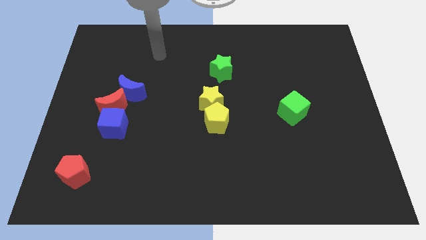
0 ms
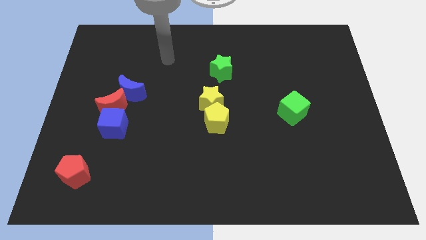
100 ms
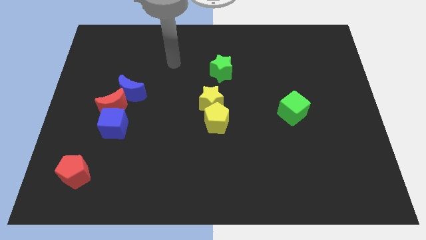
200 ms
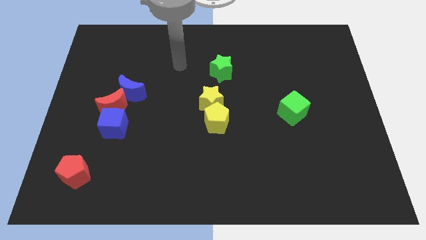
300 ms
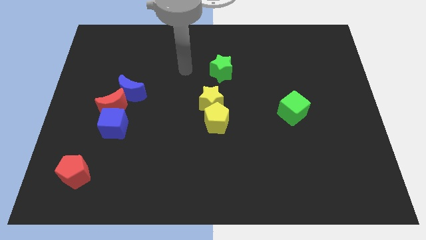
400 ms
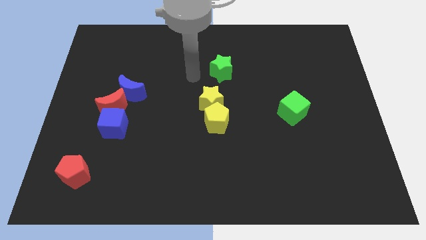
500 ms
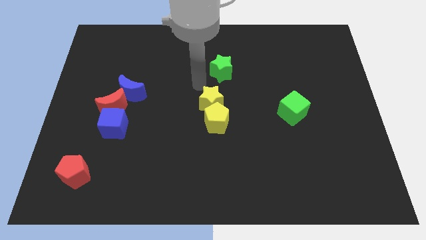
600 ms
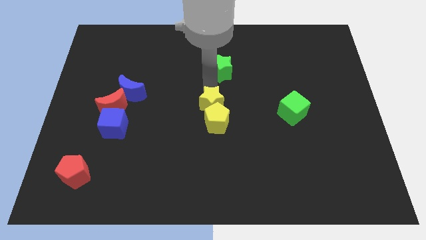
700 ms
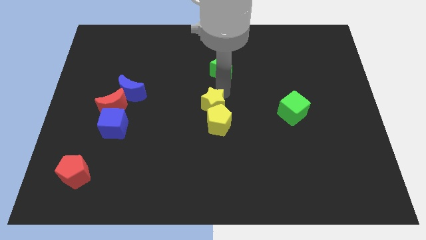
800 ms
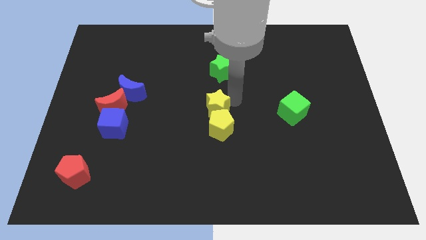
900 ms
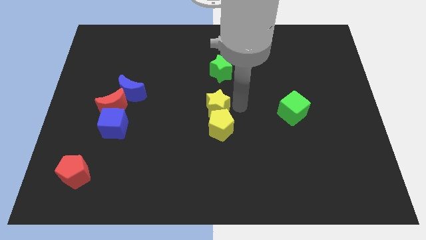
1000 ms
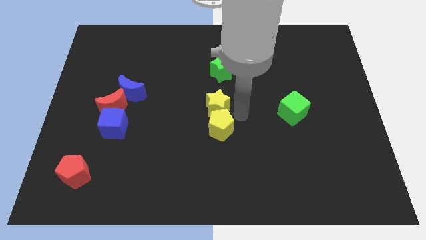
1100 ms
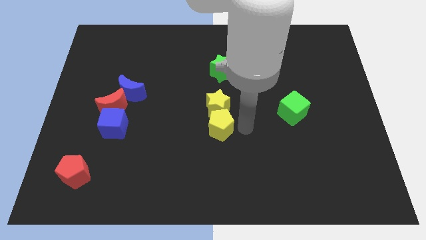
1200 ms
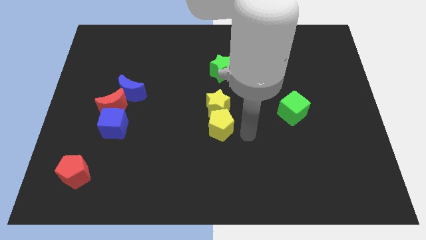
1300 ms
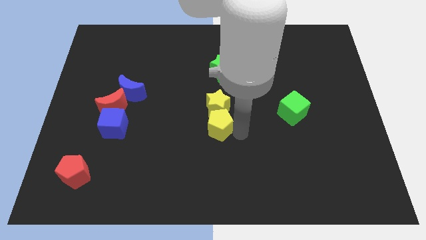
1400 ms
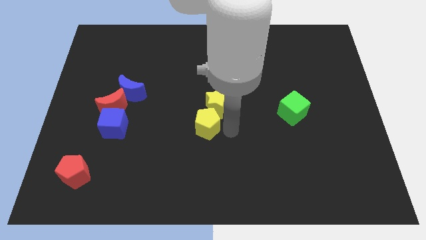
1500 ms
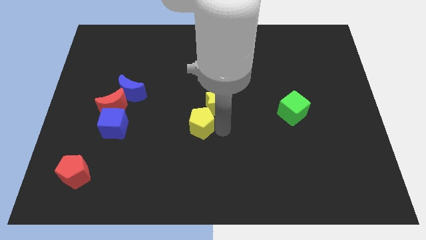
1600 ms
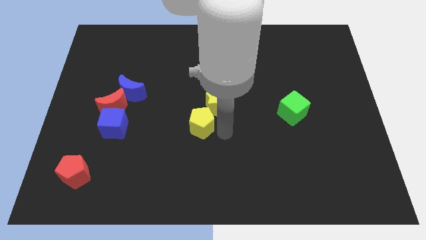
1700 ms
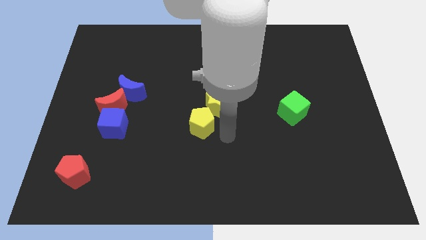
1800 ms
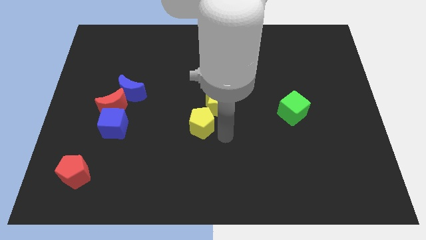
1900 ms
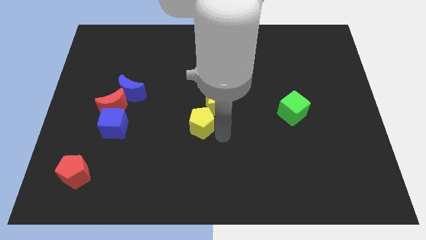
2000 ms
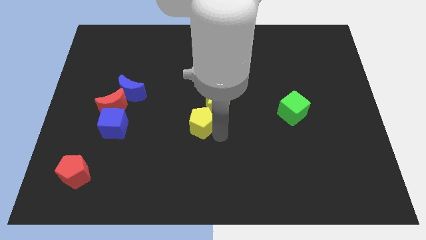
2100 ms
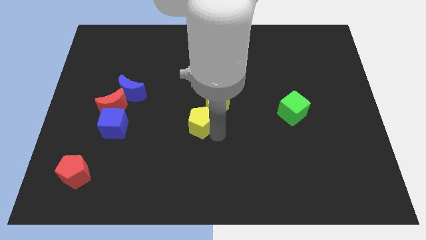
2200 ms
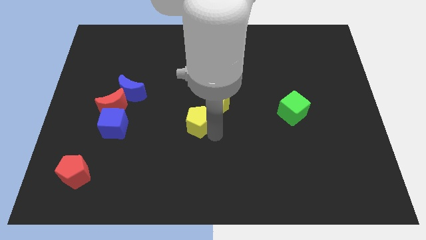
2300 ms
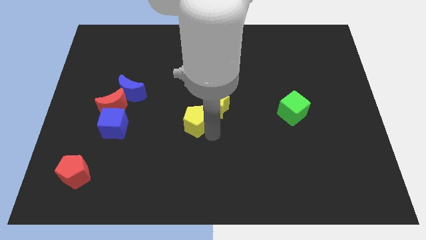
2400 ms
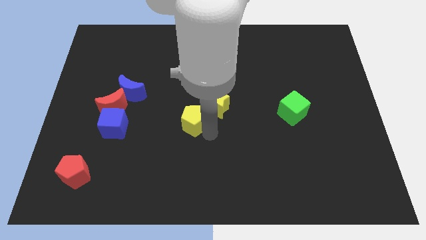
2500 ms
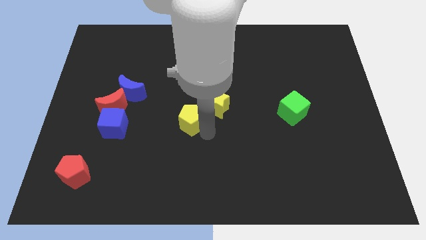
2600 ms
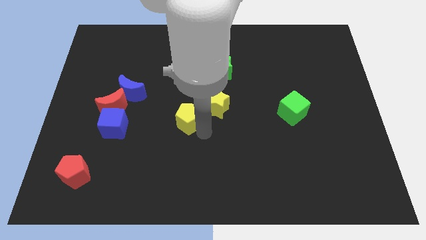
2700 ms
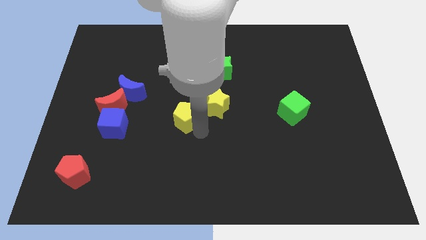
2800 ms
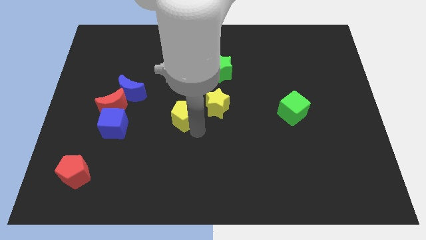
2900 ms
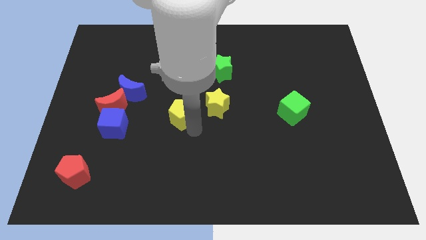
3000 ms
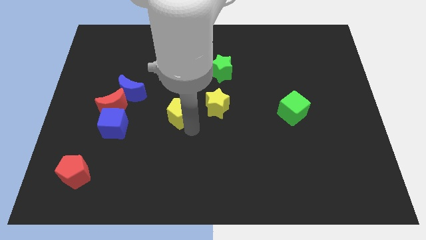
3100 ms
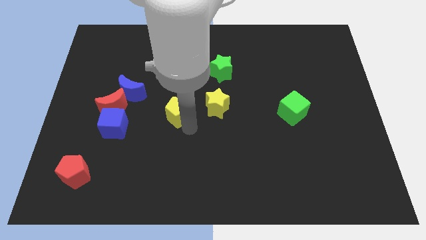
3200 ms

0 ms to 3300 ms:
slide the yellow pentagon a bit up and to the left diagonally

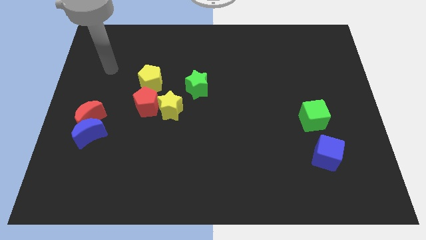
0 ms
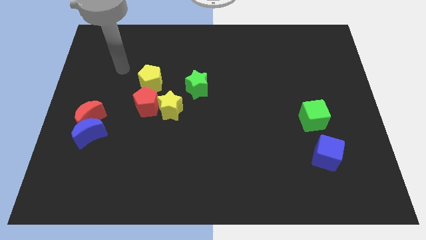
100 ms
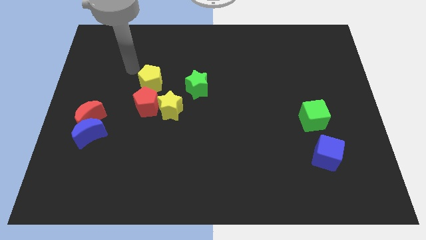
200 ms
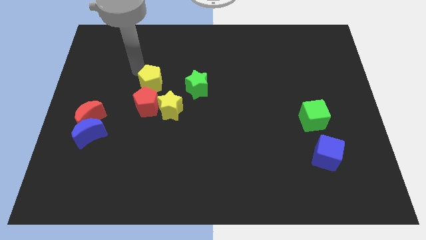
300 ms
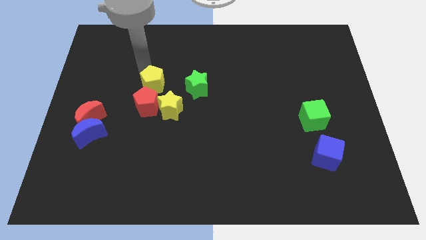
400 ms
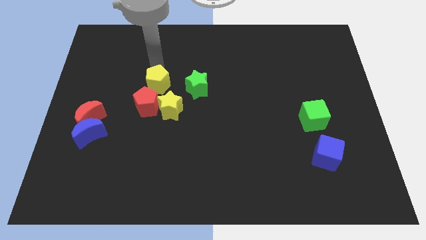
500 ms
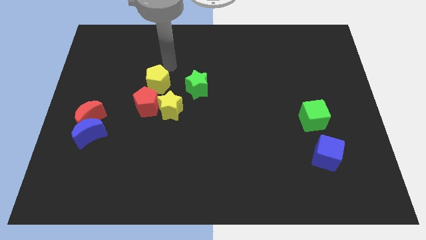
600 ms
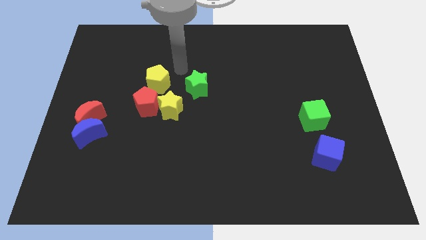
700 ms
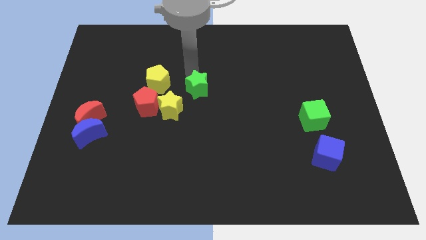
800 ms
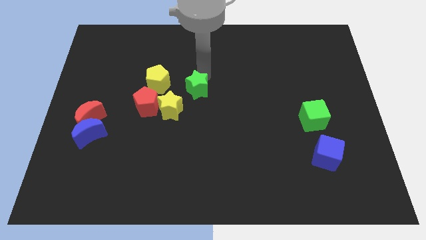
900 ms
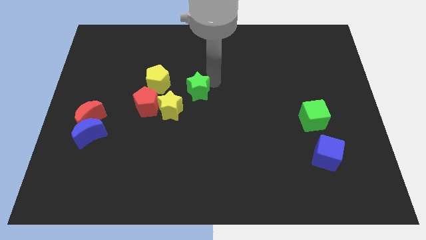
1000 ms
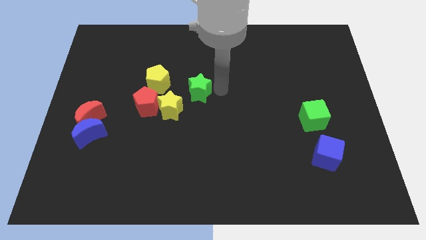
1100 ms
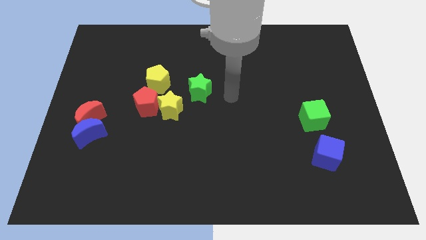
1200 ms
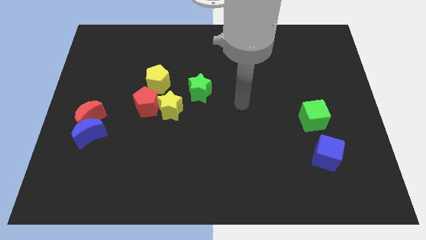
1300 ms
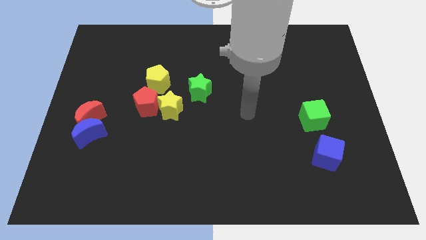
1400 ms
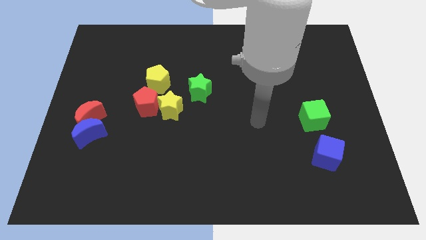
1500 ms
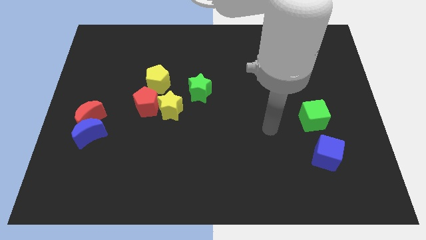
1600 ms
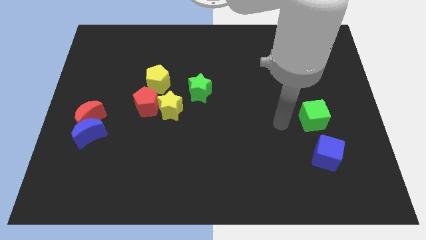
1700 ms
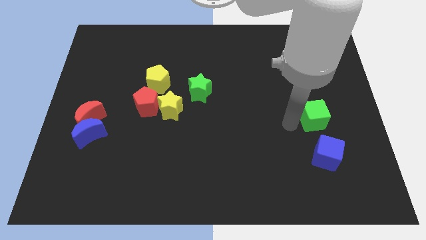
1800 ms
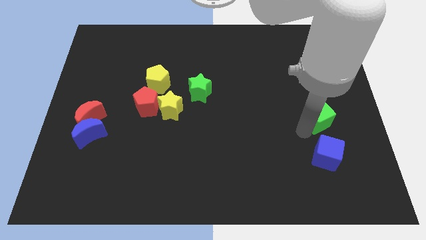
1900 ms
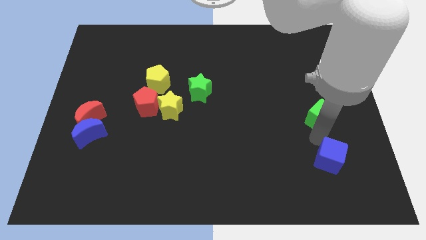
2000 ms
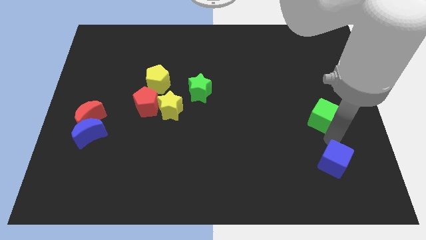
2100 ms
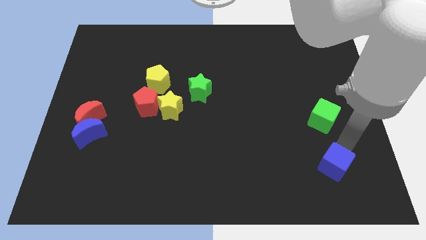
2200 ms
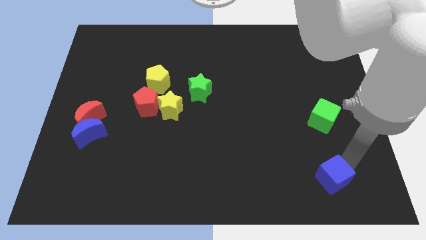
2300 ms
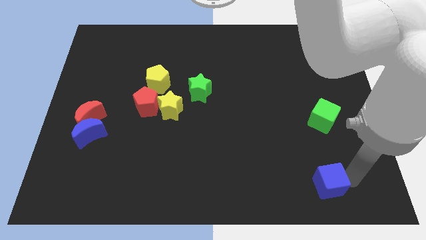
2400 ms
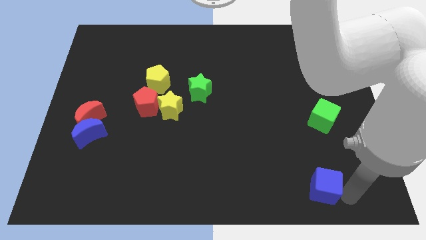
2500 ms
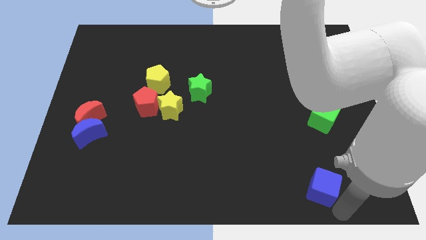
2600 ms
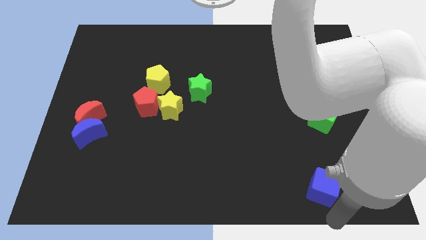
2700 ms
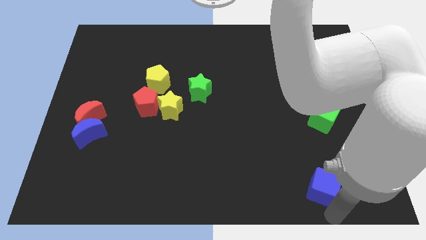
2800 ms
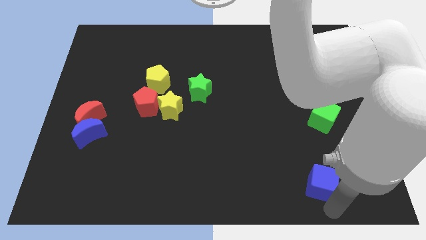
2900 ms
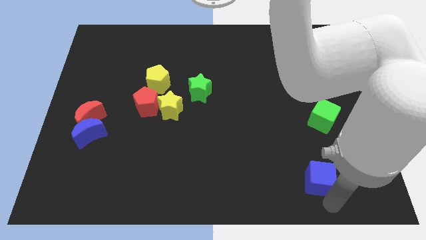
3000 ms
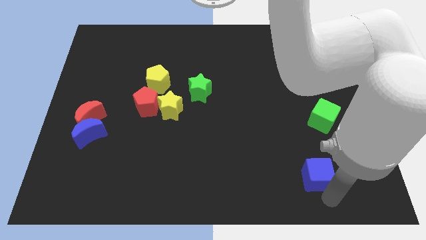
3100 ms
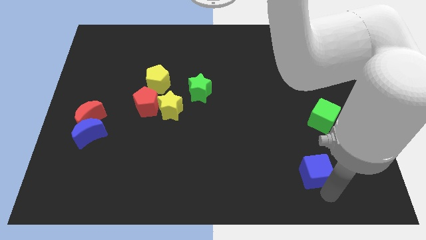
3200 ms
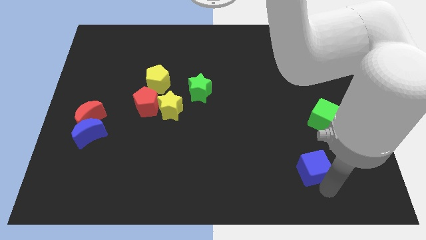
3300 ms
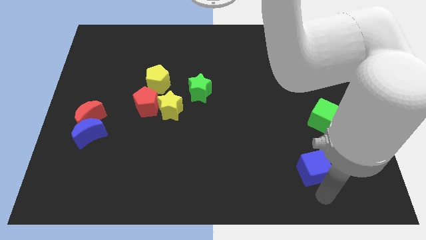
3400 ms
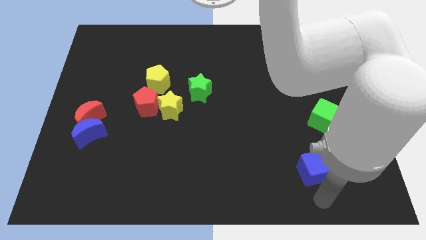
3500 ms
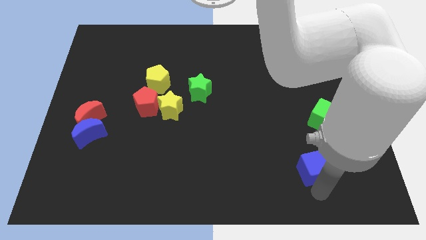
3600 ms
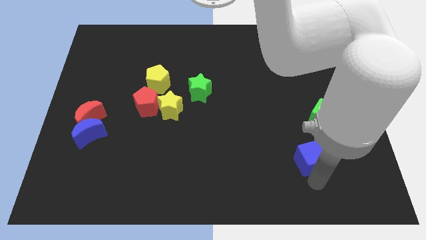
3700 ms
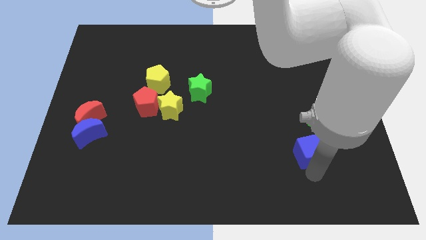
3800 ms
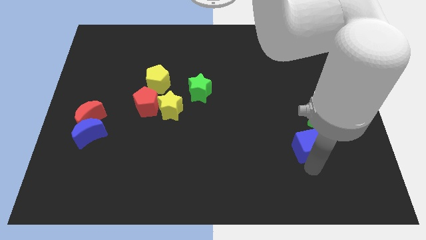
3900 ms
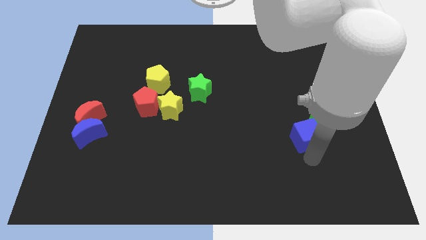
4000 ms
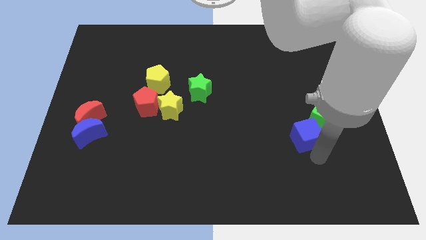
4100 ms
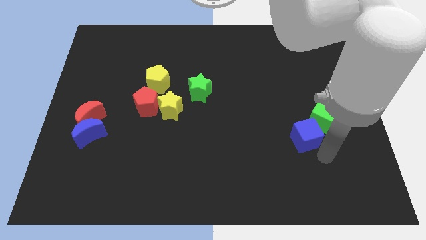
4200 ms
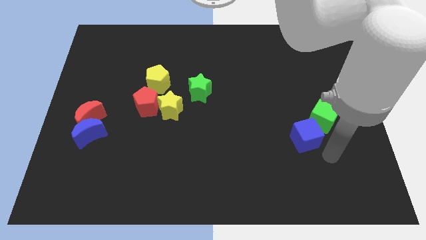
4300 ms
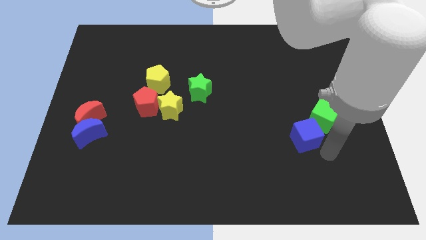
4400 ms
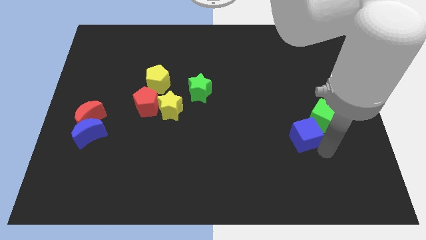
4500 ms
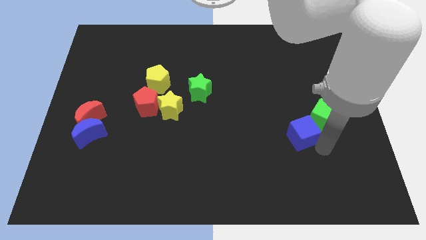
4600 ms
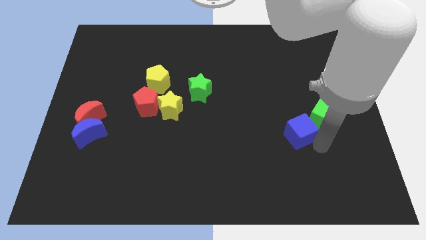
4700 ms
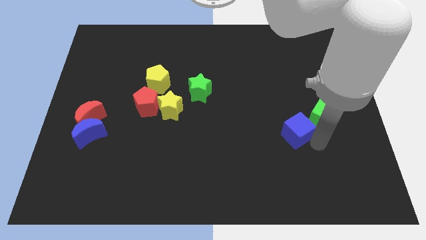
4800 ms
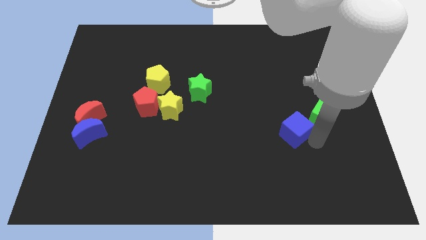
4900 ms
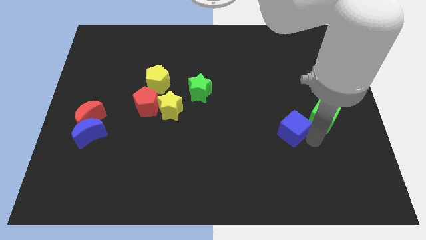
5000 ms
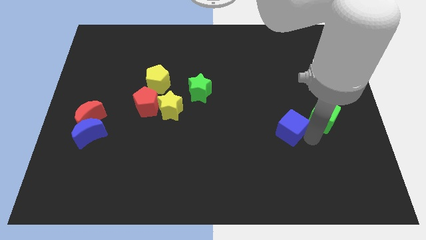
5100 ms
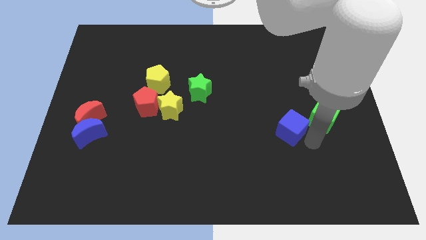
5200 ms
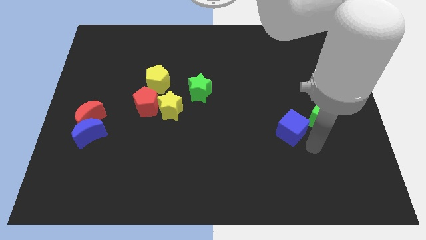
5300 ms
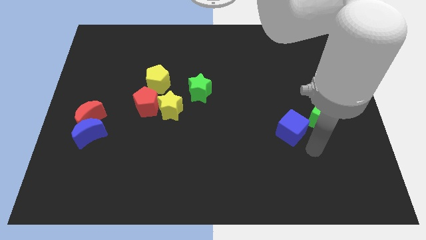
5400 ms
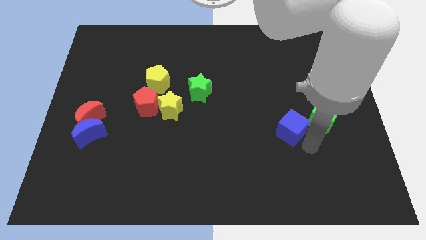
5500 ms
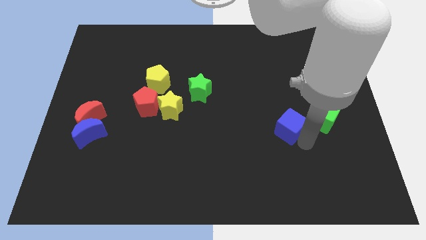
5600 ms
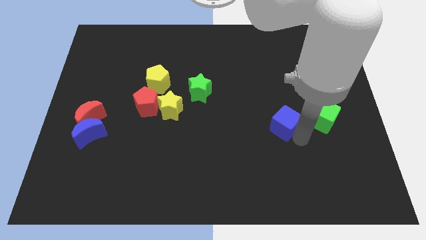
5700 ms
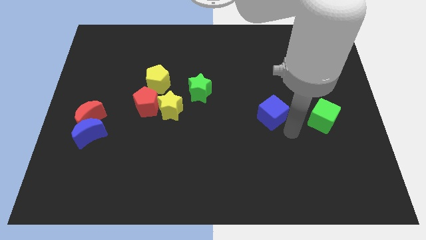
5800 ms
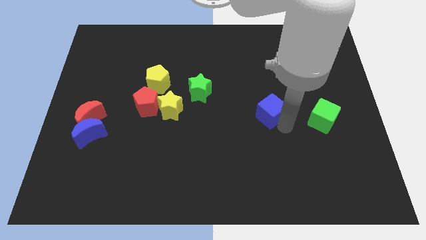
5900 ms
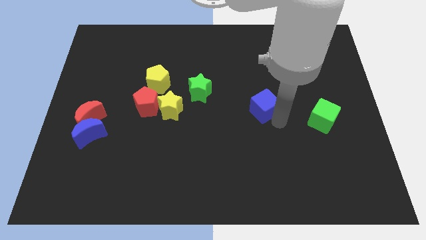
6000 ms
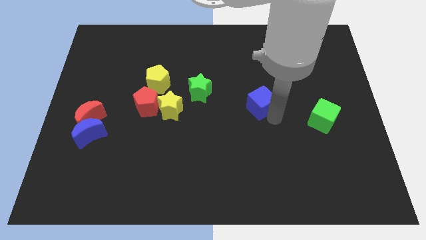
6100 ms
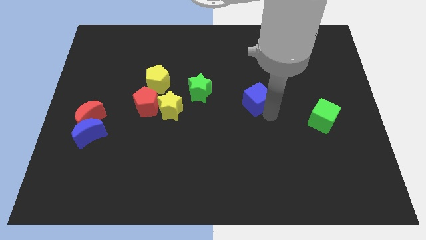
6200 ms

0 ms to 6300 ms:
slide the blue cube up and left diagonally
